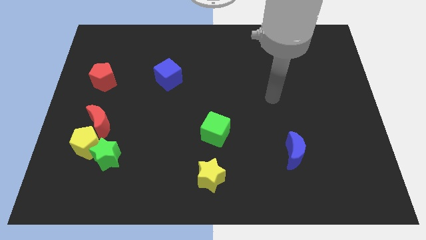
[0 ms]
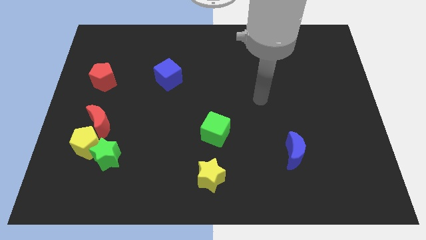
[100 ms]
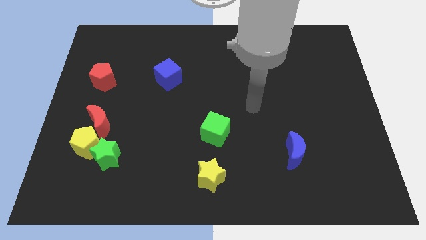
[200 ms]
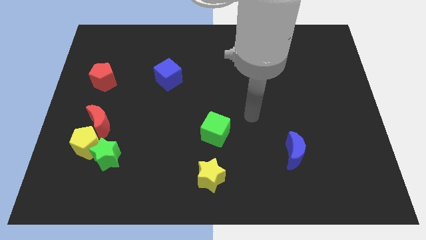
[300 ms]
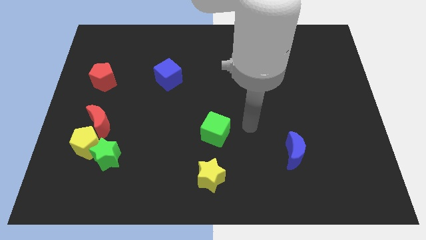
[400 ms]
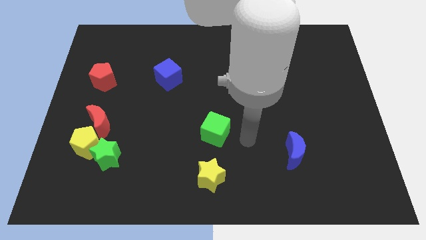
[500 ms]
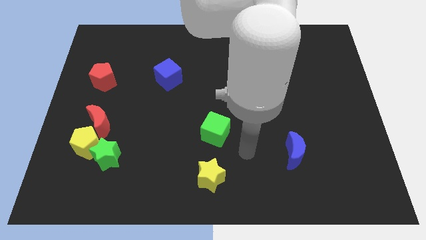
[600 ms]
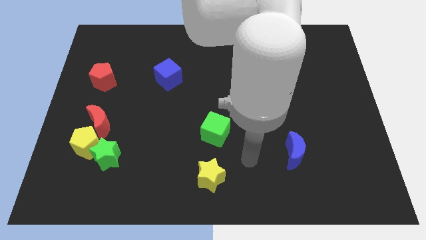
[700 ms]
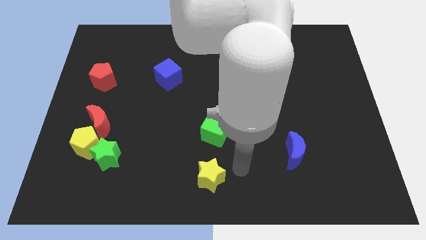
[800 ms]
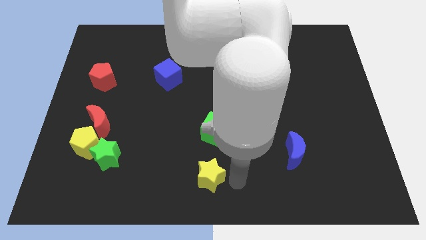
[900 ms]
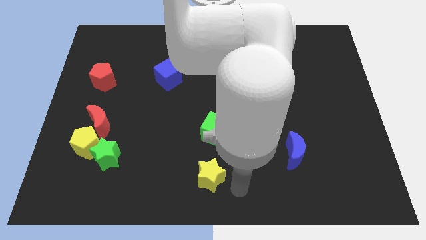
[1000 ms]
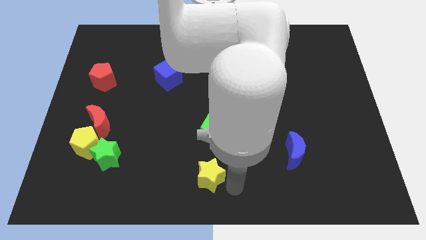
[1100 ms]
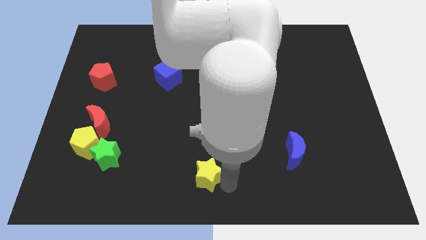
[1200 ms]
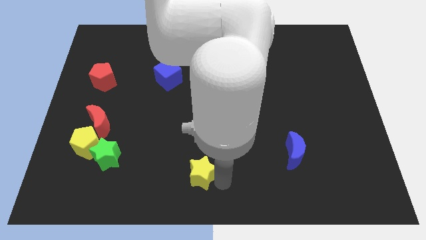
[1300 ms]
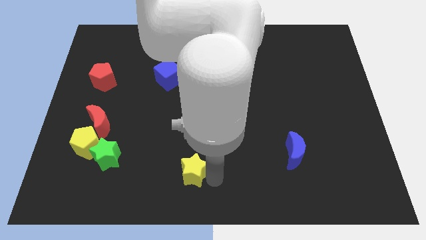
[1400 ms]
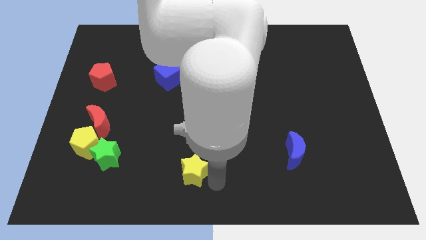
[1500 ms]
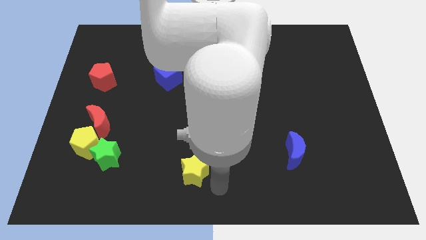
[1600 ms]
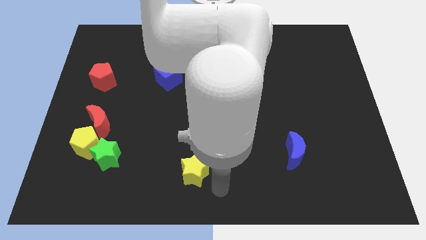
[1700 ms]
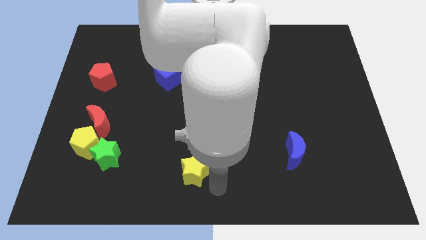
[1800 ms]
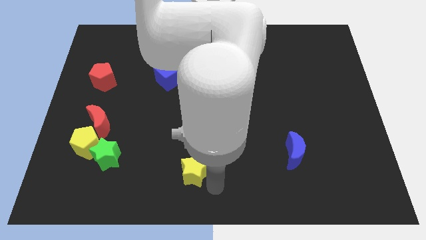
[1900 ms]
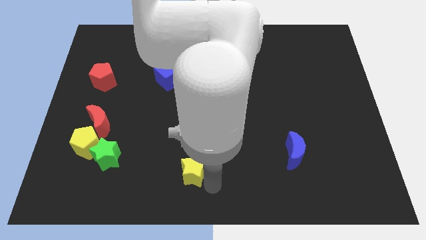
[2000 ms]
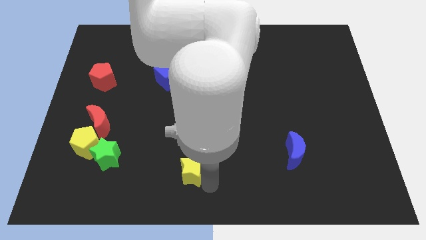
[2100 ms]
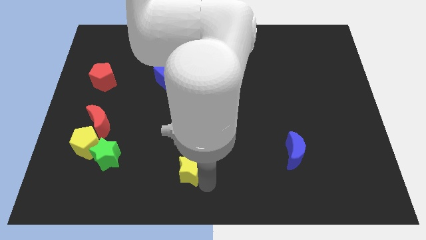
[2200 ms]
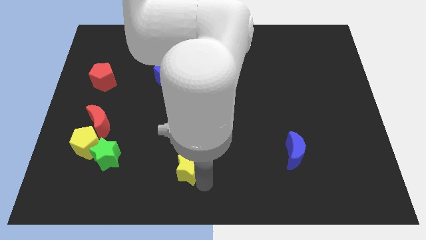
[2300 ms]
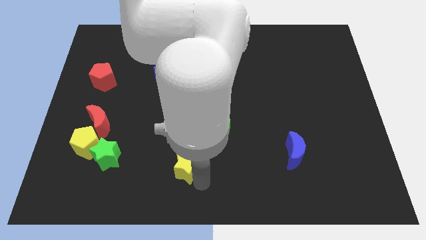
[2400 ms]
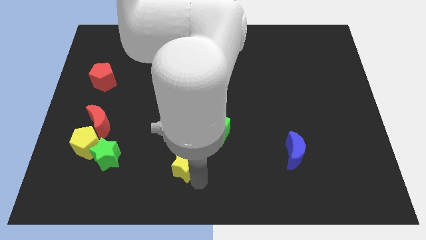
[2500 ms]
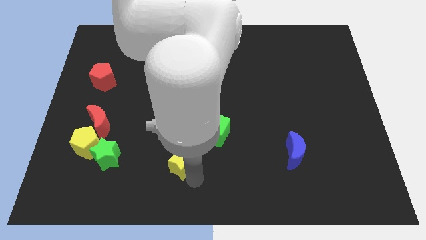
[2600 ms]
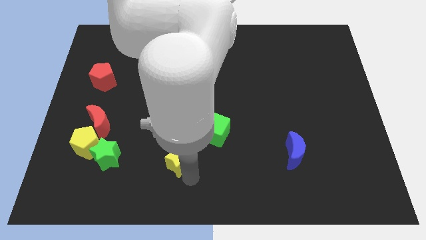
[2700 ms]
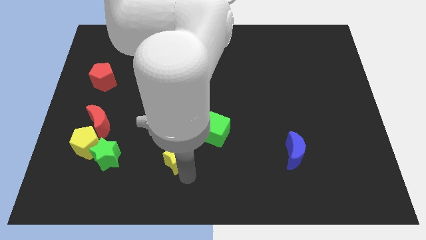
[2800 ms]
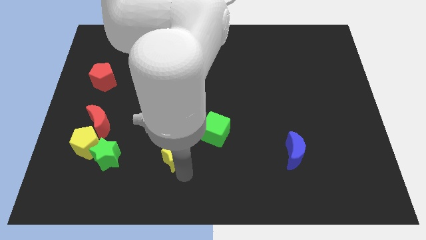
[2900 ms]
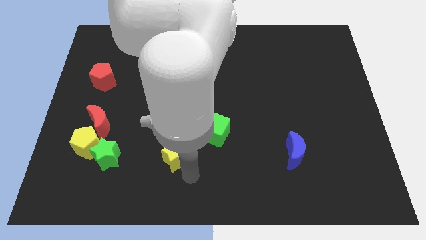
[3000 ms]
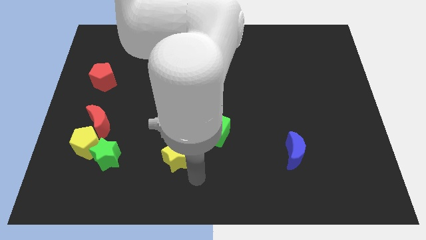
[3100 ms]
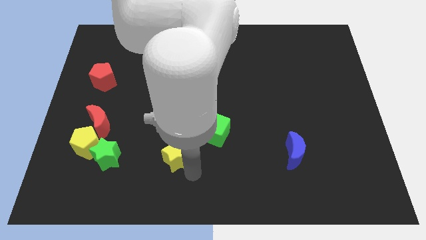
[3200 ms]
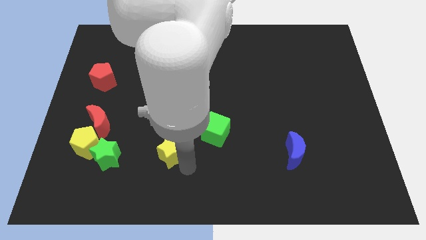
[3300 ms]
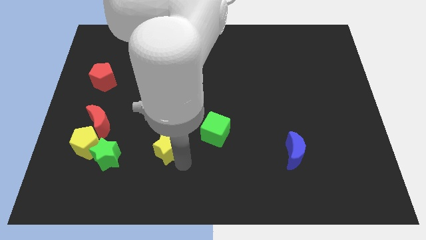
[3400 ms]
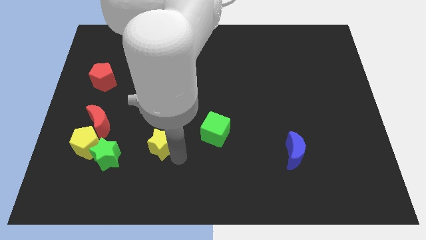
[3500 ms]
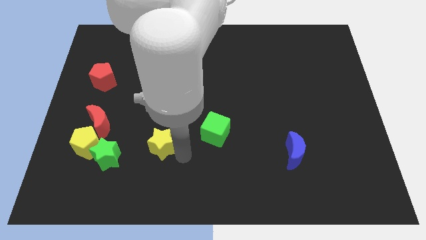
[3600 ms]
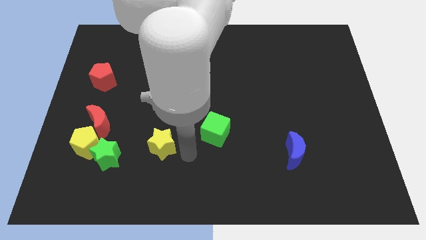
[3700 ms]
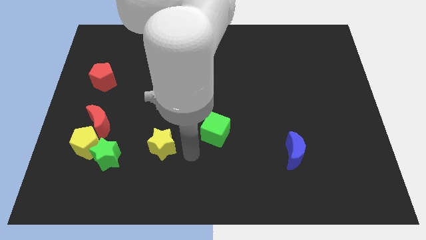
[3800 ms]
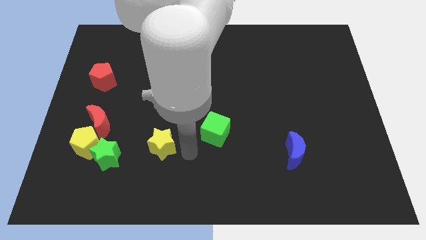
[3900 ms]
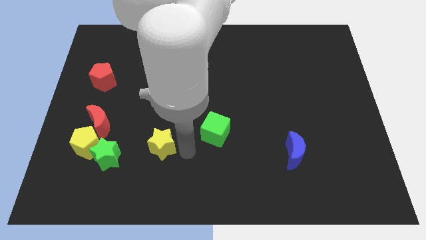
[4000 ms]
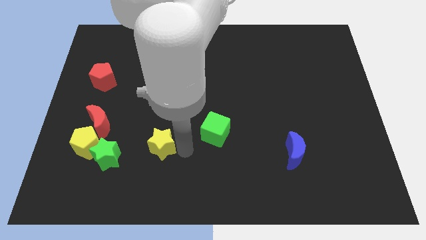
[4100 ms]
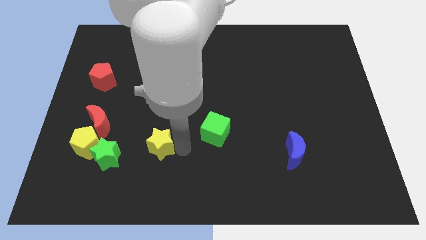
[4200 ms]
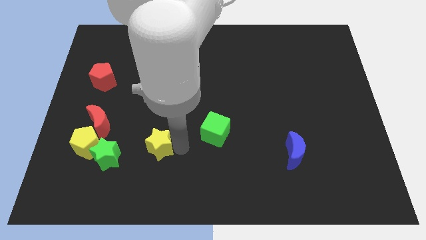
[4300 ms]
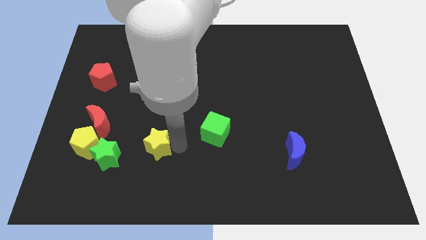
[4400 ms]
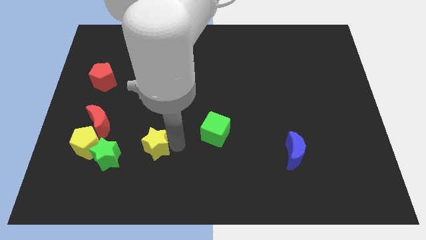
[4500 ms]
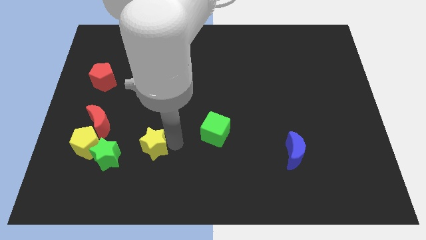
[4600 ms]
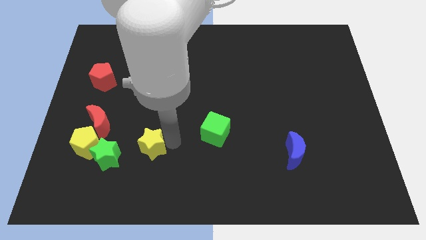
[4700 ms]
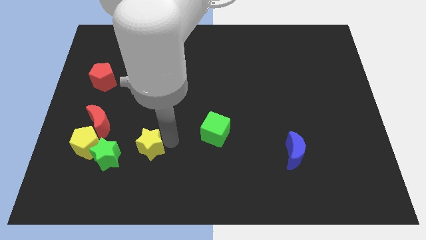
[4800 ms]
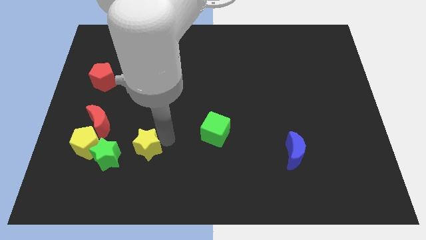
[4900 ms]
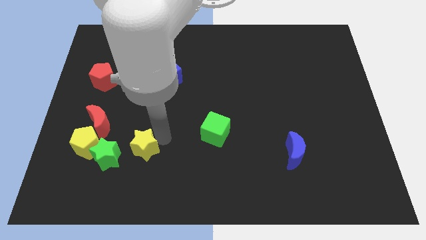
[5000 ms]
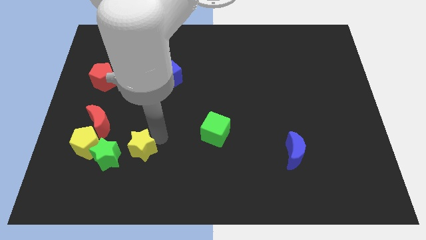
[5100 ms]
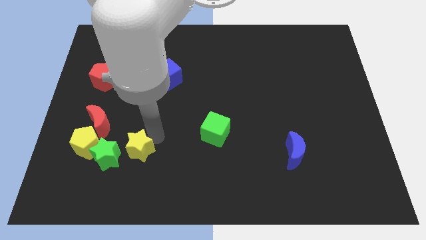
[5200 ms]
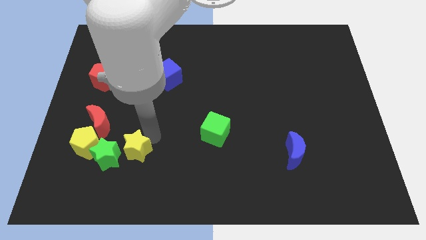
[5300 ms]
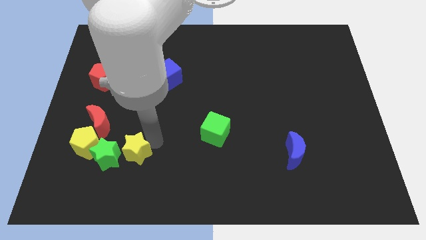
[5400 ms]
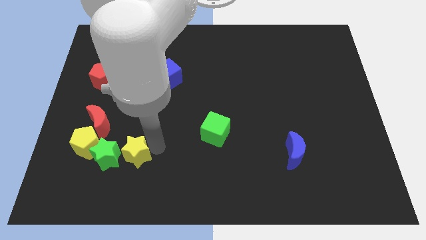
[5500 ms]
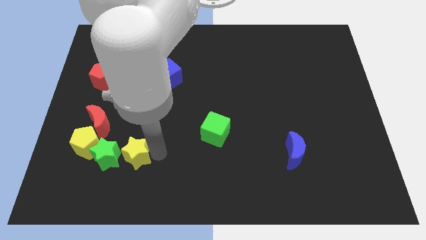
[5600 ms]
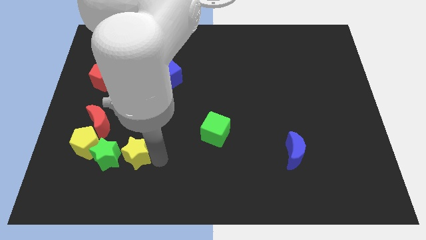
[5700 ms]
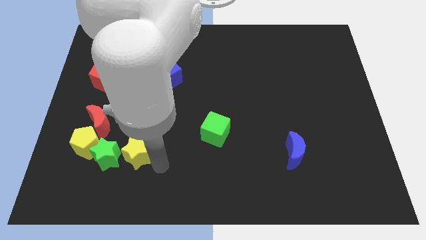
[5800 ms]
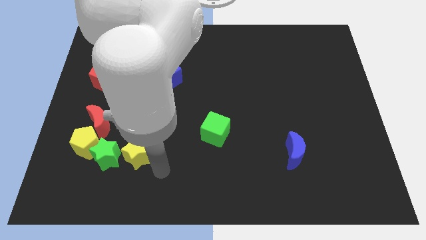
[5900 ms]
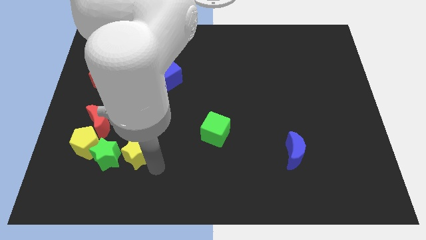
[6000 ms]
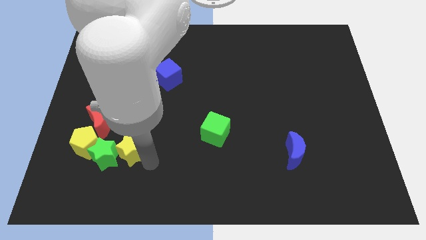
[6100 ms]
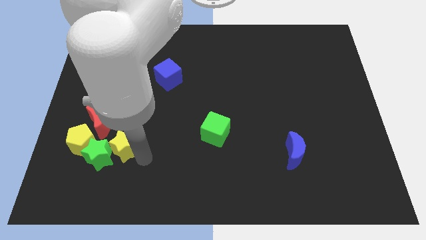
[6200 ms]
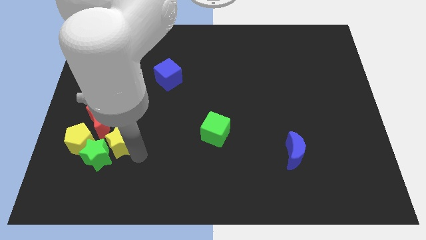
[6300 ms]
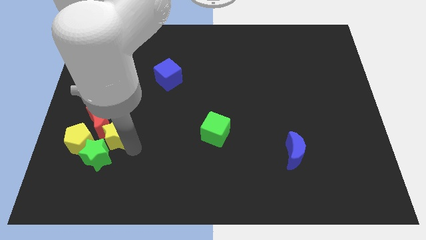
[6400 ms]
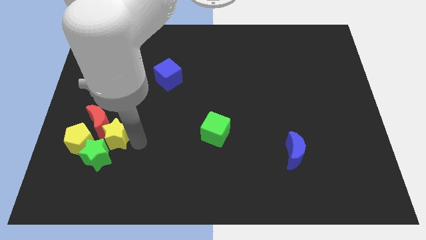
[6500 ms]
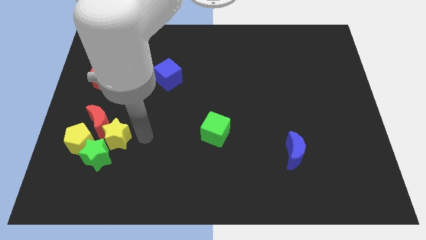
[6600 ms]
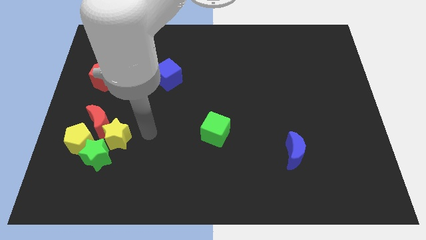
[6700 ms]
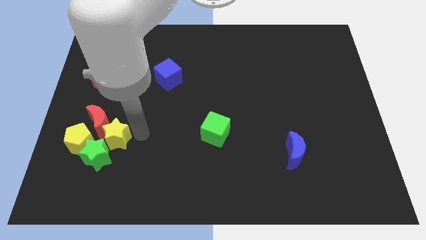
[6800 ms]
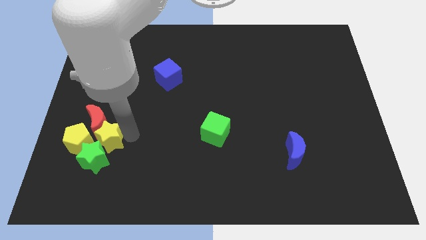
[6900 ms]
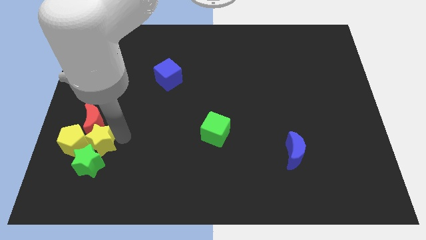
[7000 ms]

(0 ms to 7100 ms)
move the yellow star next to the yellow pentagon
